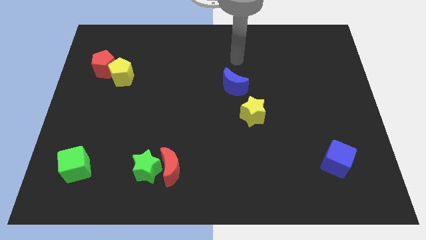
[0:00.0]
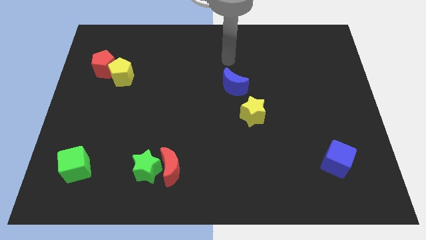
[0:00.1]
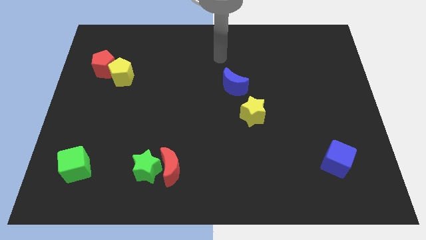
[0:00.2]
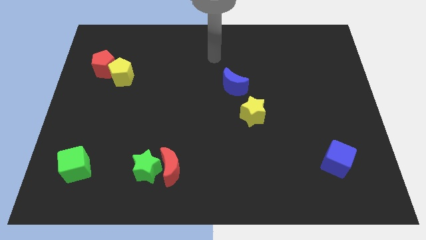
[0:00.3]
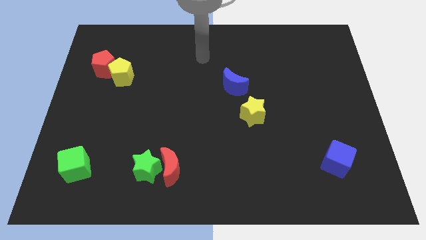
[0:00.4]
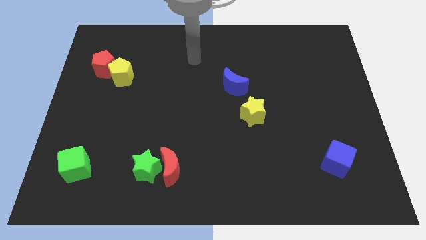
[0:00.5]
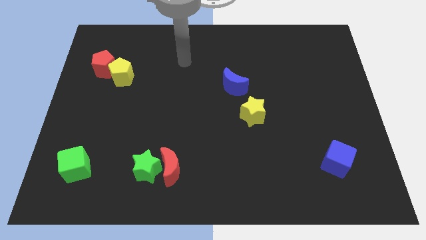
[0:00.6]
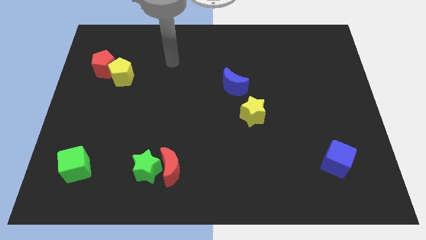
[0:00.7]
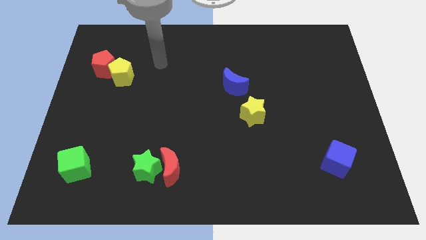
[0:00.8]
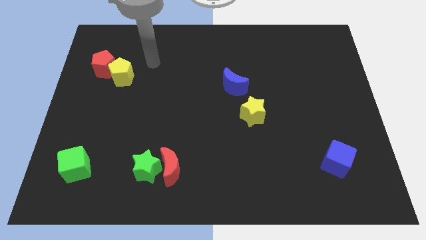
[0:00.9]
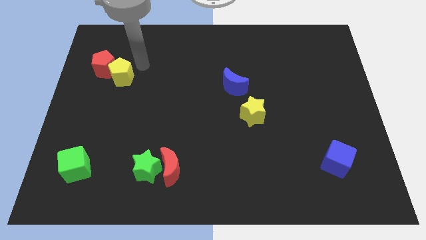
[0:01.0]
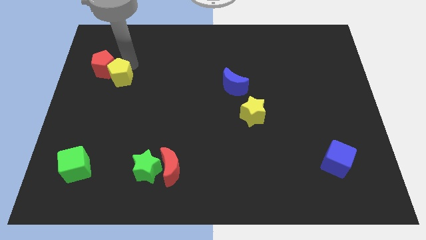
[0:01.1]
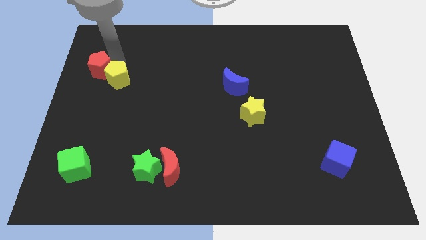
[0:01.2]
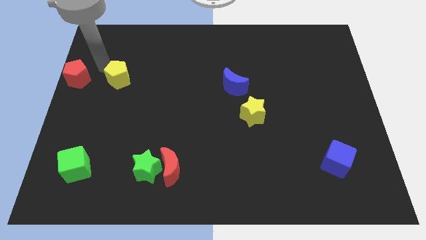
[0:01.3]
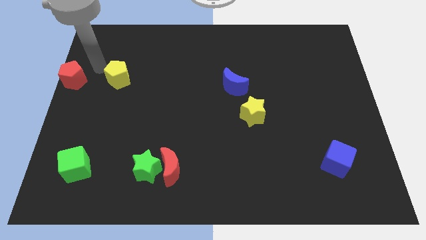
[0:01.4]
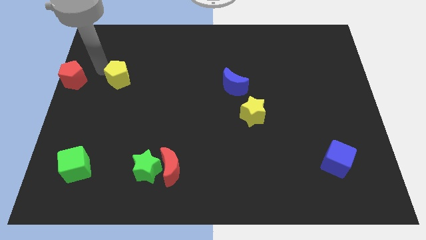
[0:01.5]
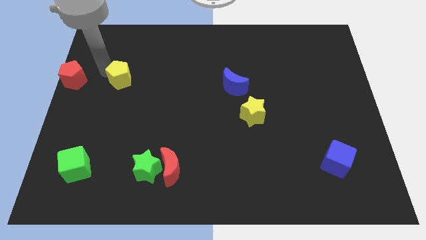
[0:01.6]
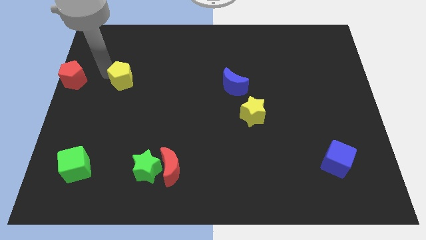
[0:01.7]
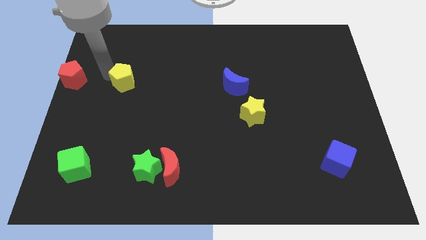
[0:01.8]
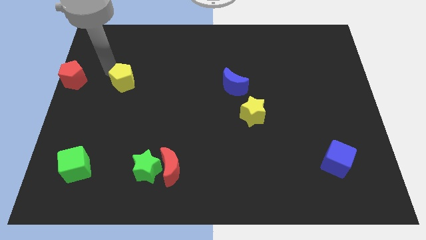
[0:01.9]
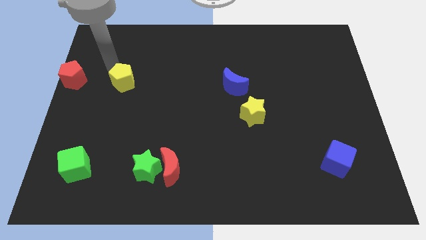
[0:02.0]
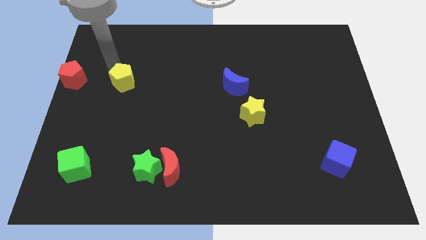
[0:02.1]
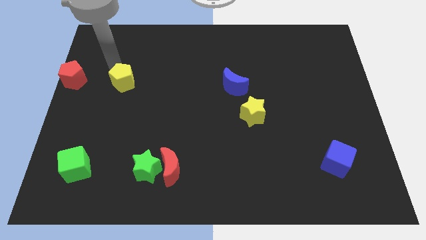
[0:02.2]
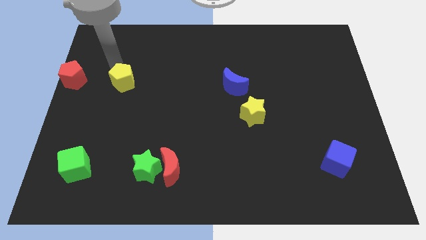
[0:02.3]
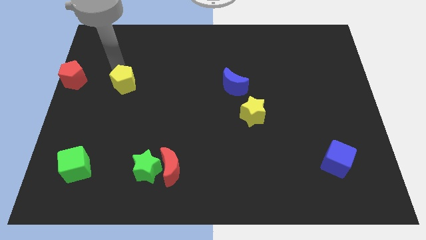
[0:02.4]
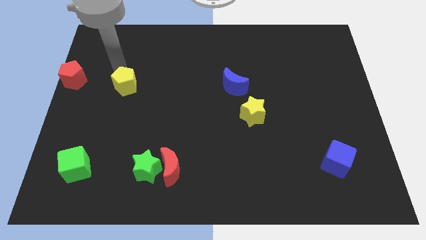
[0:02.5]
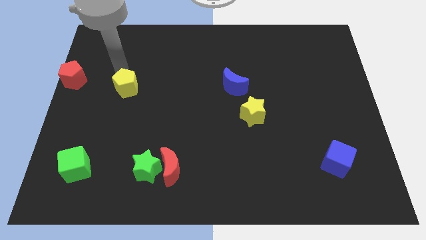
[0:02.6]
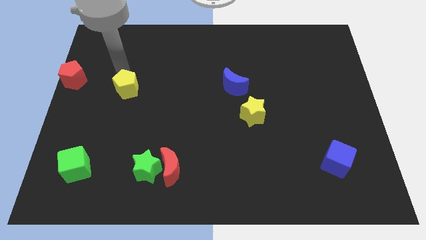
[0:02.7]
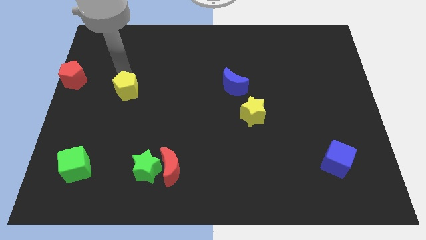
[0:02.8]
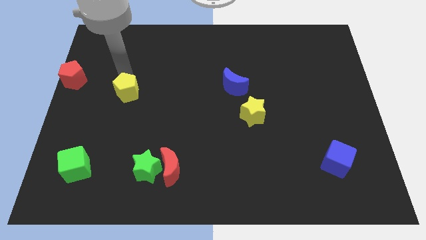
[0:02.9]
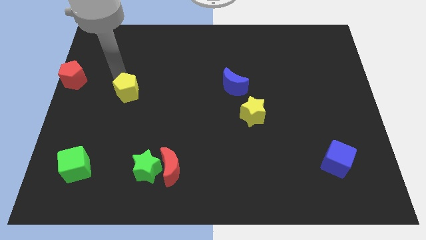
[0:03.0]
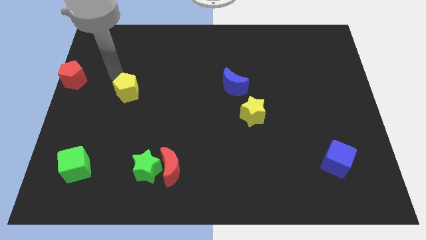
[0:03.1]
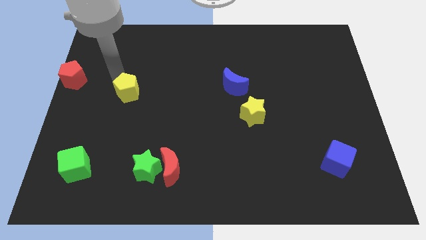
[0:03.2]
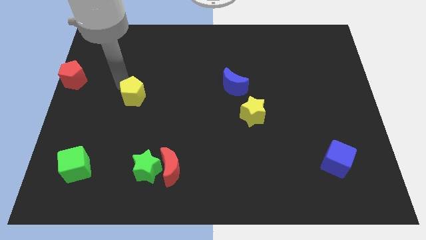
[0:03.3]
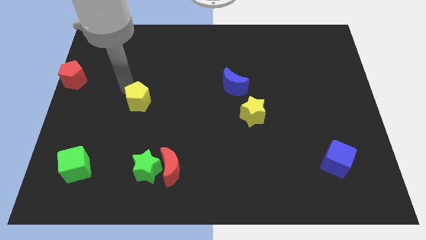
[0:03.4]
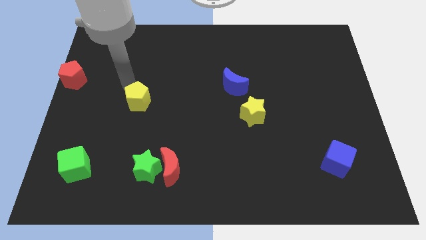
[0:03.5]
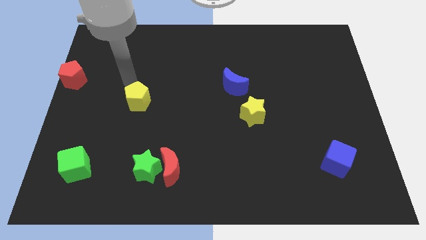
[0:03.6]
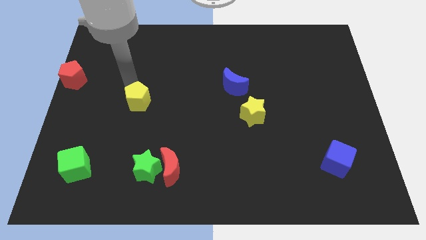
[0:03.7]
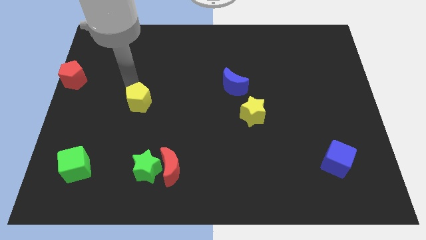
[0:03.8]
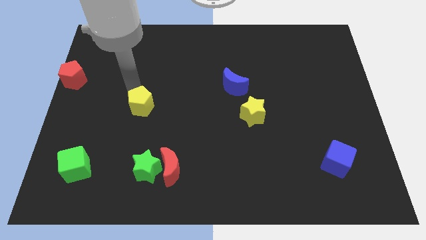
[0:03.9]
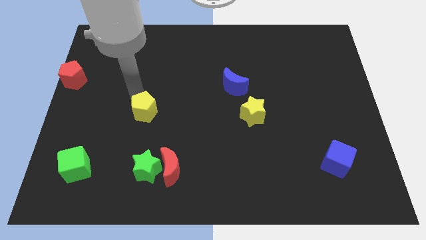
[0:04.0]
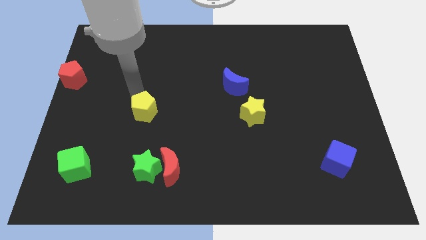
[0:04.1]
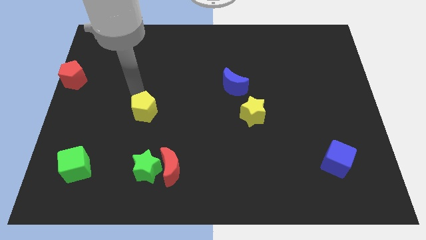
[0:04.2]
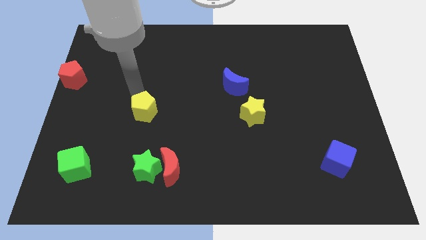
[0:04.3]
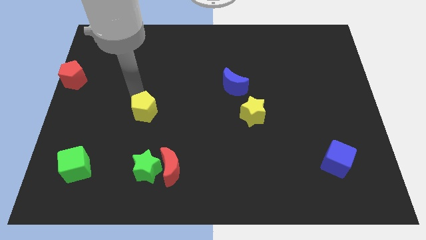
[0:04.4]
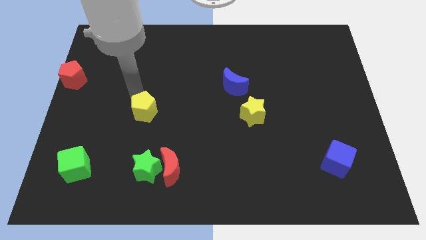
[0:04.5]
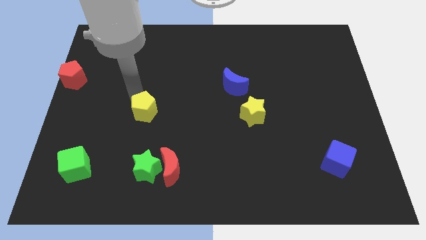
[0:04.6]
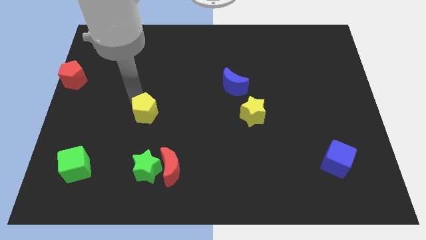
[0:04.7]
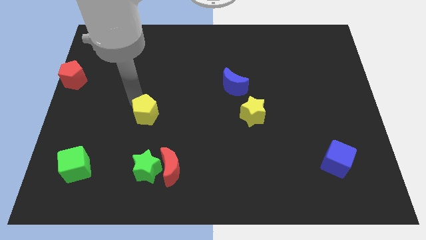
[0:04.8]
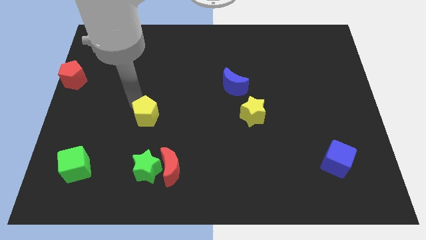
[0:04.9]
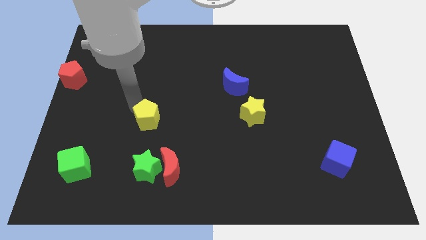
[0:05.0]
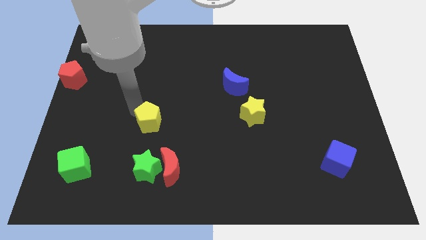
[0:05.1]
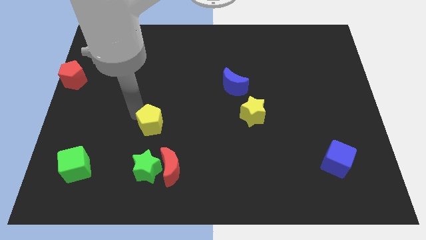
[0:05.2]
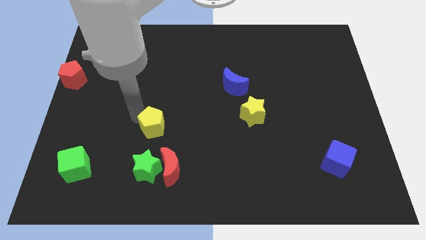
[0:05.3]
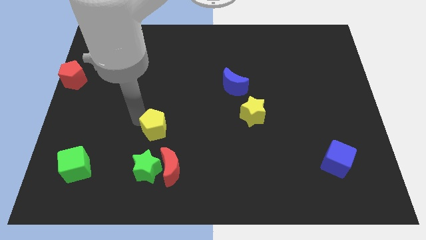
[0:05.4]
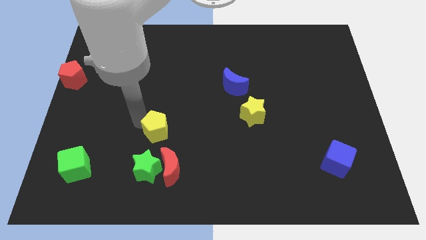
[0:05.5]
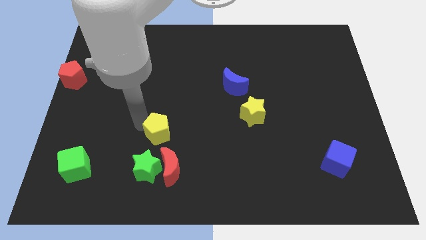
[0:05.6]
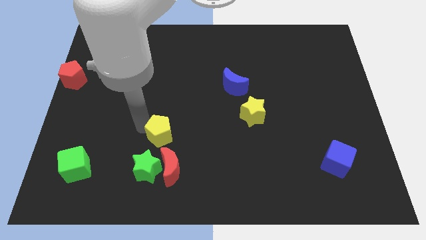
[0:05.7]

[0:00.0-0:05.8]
move the yellow pentagon down and to the right

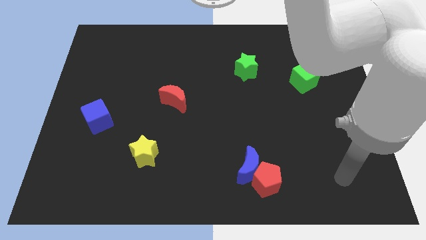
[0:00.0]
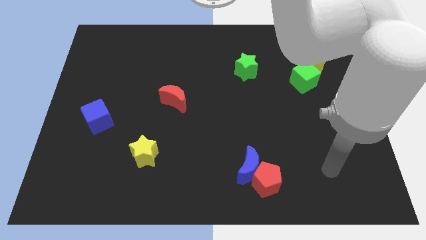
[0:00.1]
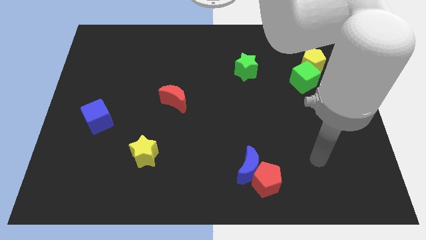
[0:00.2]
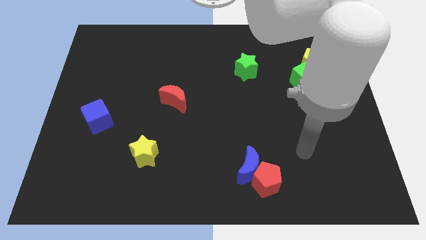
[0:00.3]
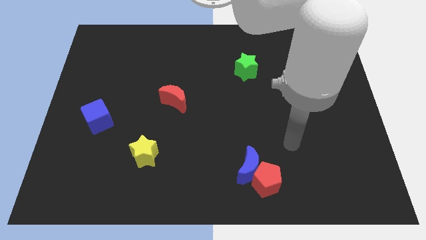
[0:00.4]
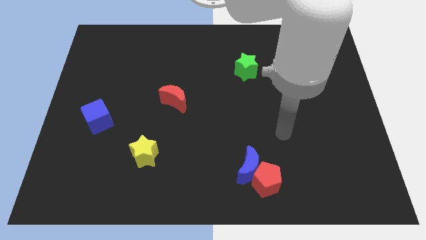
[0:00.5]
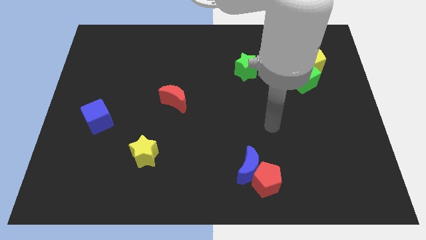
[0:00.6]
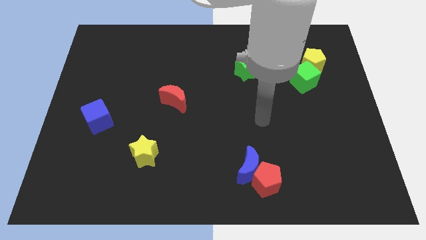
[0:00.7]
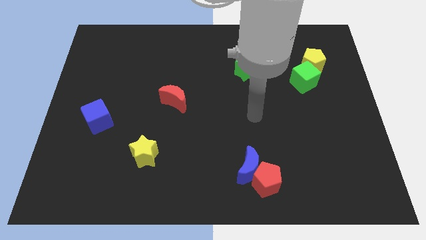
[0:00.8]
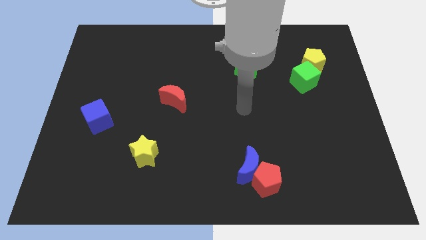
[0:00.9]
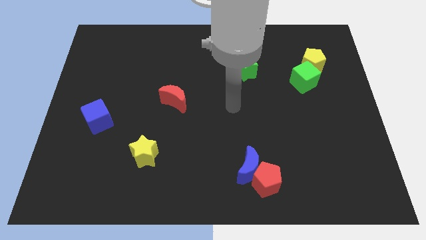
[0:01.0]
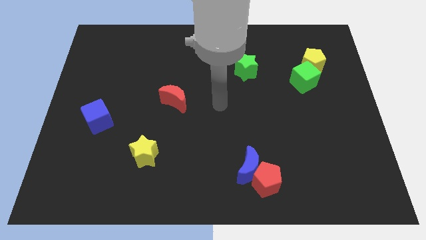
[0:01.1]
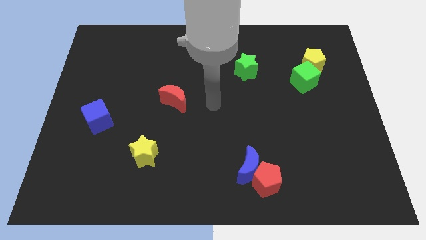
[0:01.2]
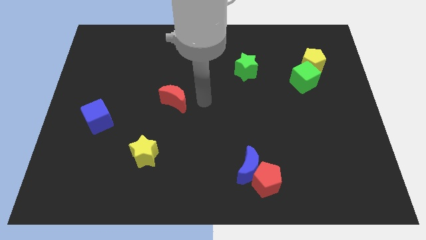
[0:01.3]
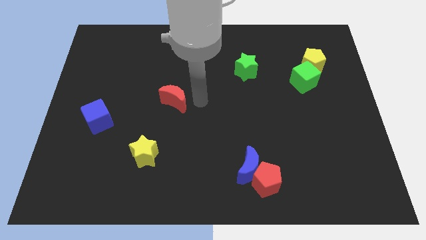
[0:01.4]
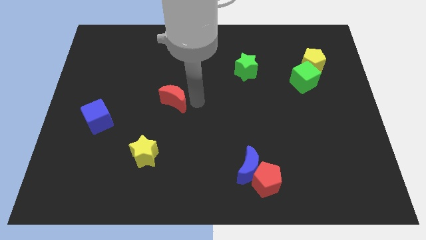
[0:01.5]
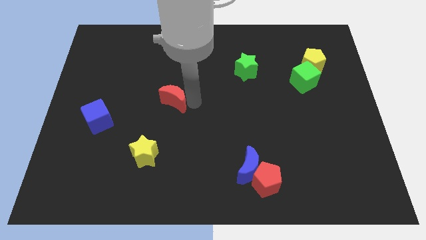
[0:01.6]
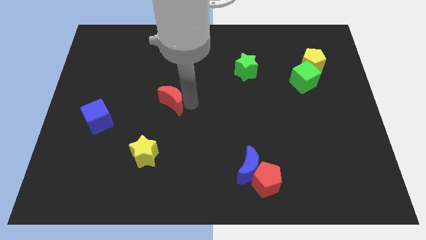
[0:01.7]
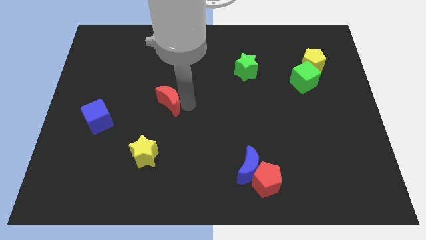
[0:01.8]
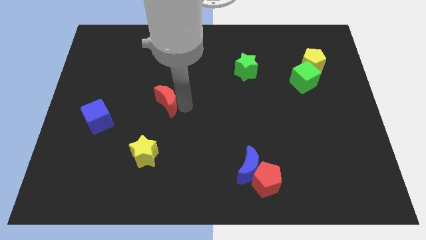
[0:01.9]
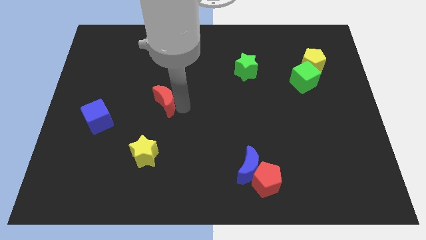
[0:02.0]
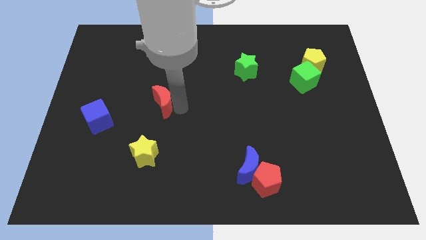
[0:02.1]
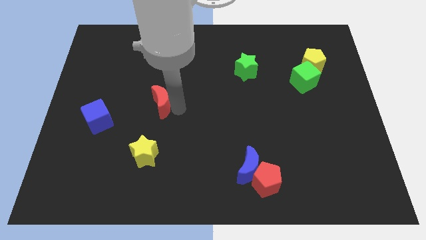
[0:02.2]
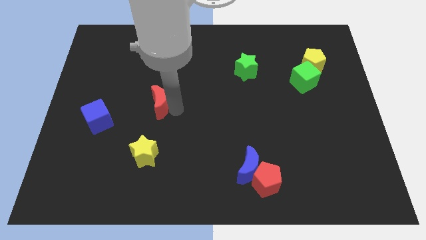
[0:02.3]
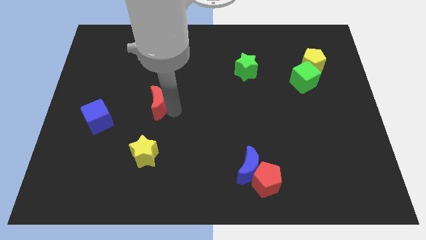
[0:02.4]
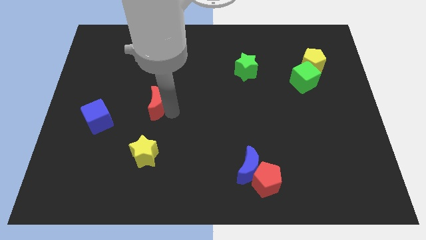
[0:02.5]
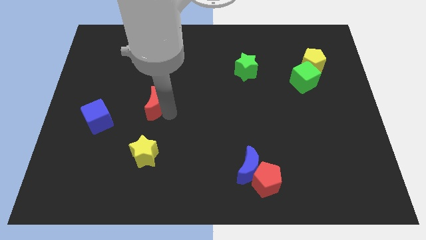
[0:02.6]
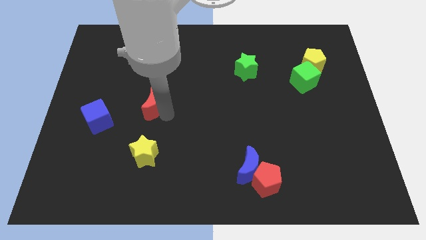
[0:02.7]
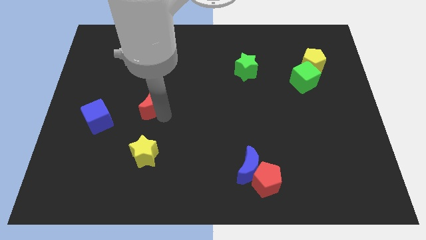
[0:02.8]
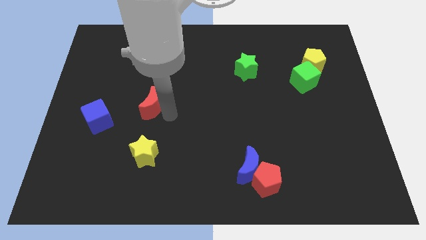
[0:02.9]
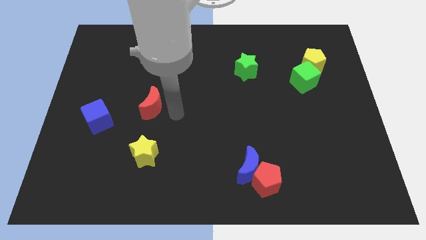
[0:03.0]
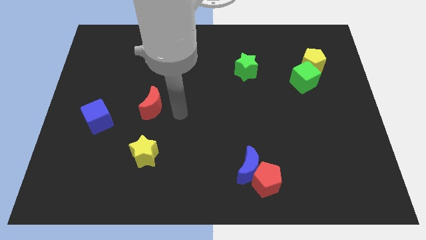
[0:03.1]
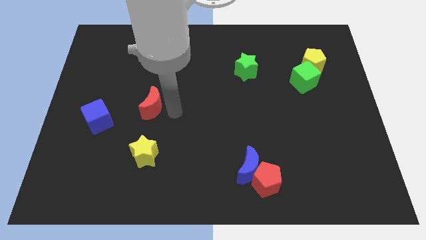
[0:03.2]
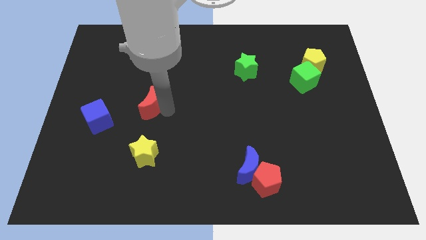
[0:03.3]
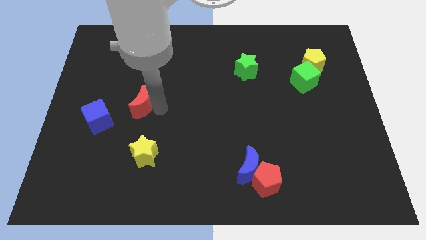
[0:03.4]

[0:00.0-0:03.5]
slightly move the red moon to the left
